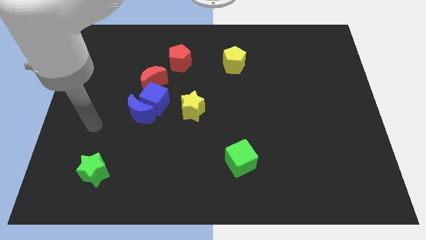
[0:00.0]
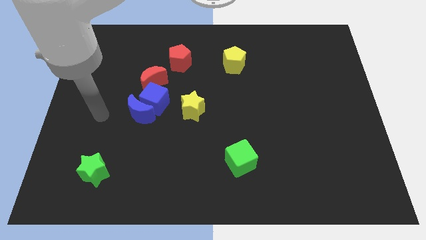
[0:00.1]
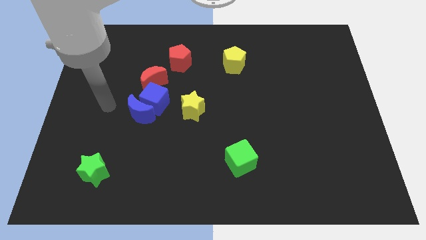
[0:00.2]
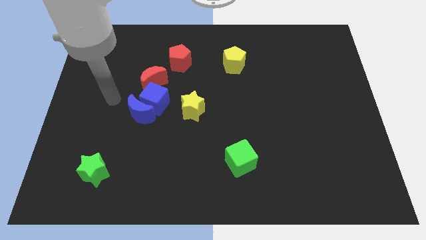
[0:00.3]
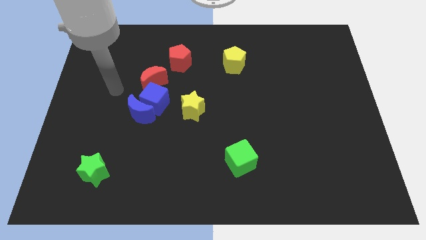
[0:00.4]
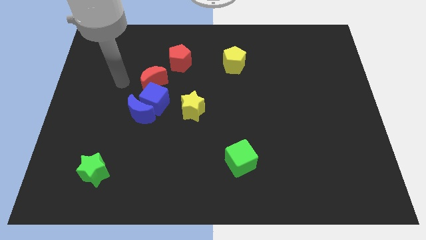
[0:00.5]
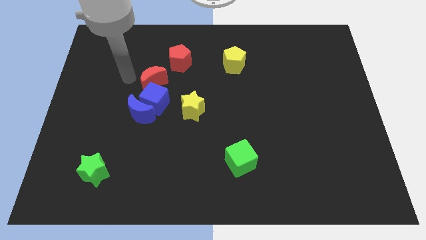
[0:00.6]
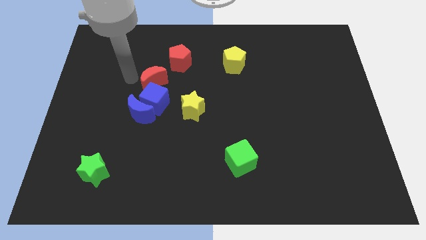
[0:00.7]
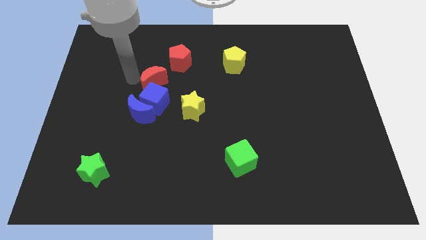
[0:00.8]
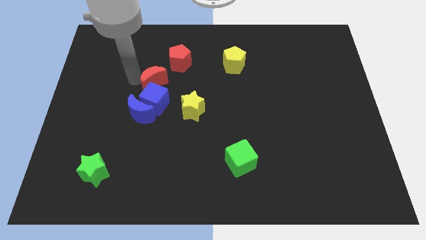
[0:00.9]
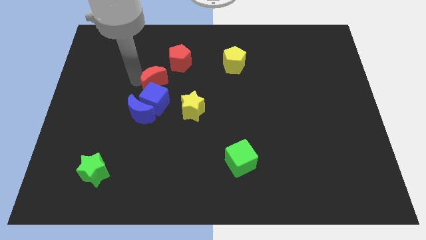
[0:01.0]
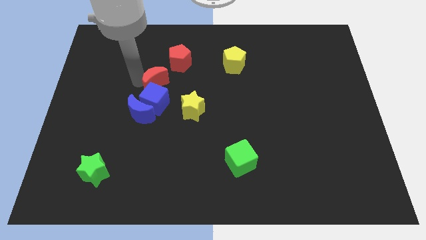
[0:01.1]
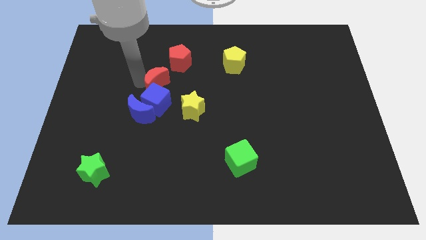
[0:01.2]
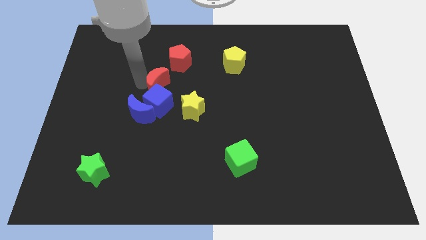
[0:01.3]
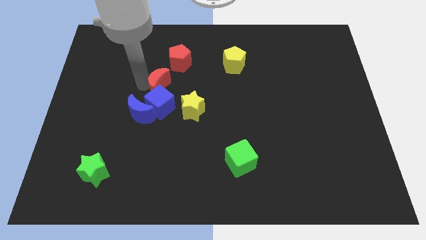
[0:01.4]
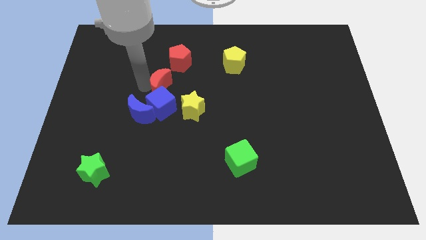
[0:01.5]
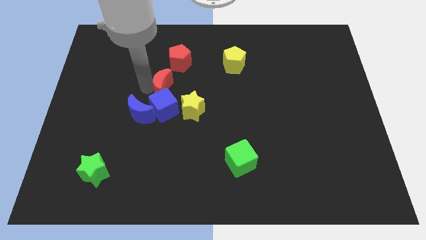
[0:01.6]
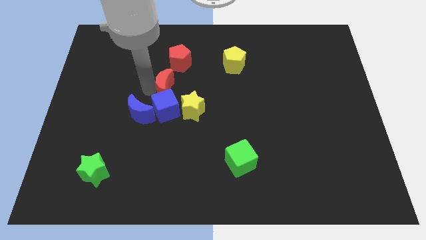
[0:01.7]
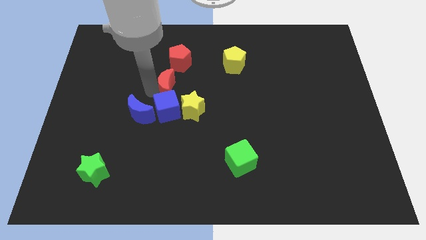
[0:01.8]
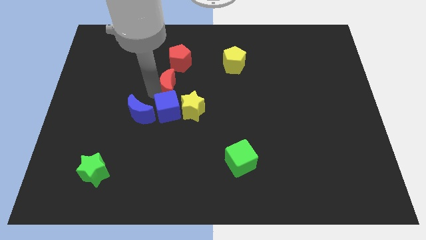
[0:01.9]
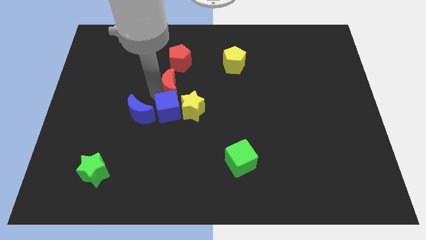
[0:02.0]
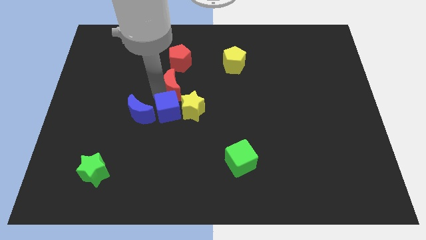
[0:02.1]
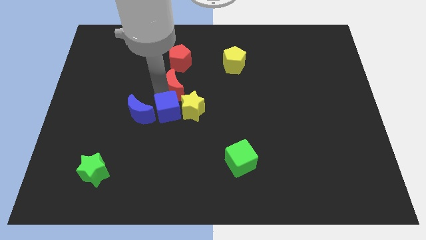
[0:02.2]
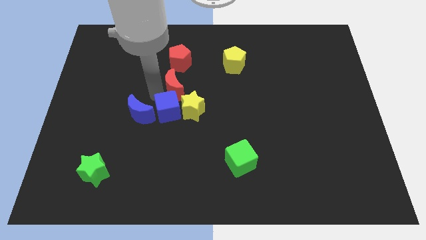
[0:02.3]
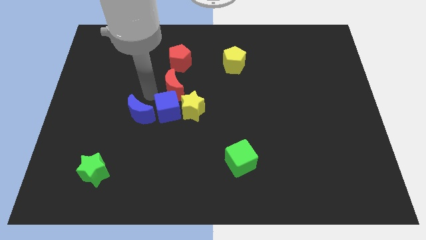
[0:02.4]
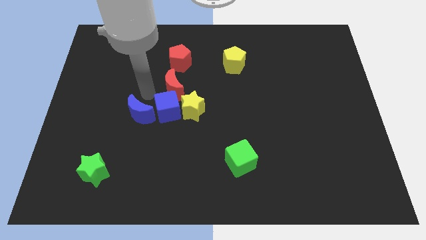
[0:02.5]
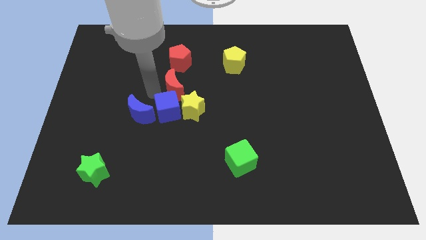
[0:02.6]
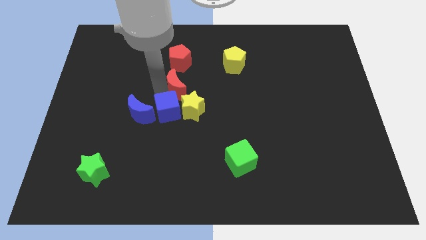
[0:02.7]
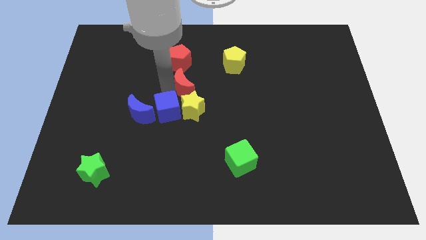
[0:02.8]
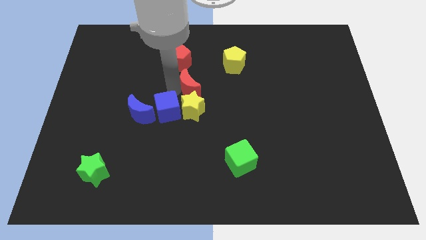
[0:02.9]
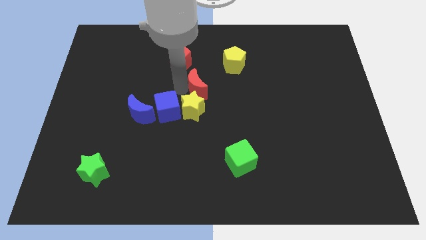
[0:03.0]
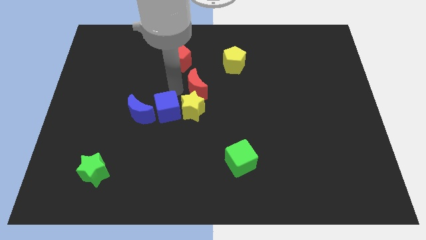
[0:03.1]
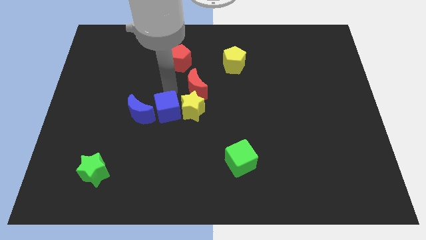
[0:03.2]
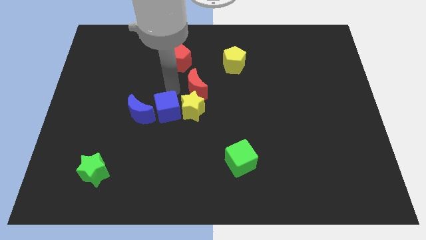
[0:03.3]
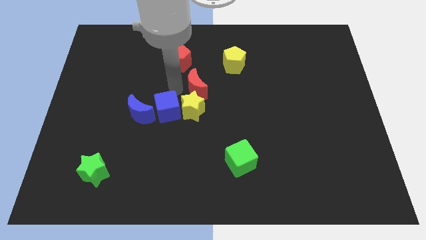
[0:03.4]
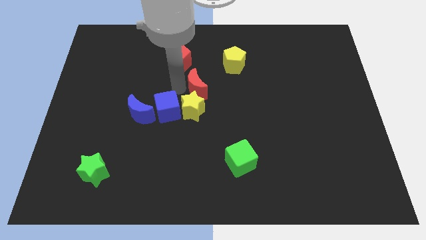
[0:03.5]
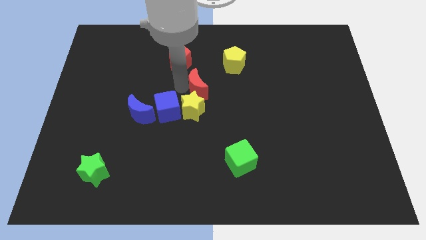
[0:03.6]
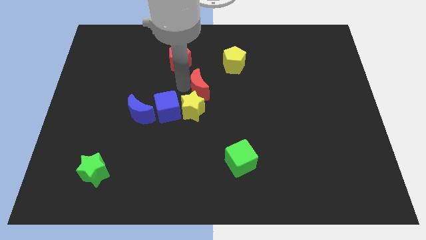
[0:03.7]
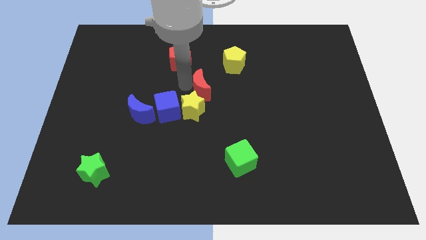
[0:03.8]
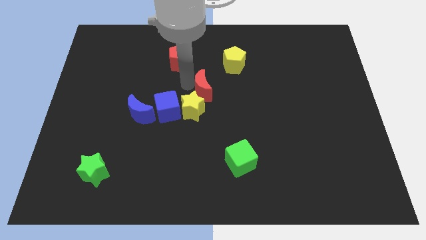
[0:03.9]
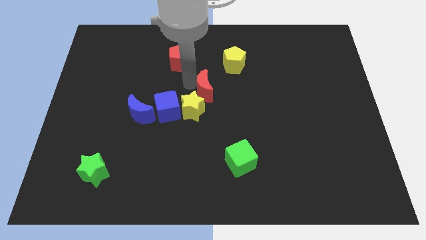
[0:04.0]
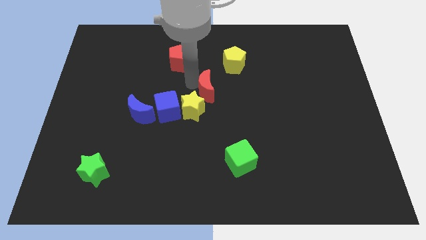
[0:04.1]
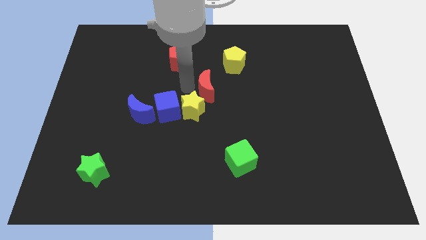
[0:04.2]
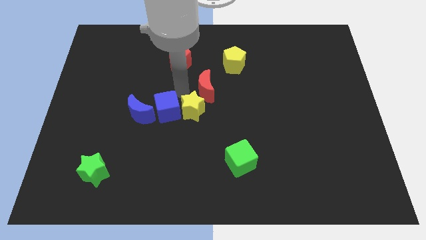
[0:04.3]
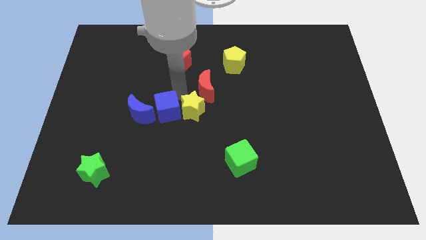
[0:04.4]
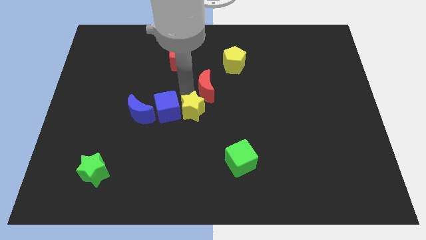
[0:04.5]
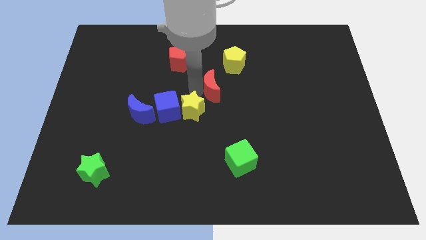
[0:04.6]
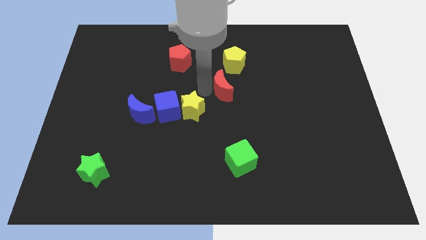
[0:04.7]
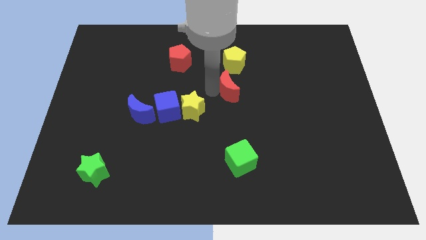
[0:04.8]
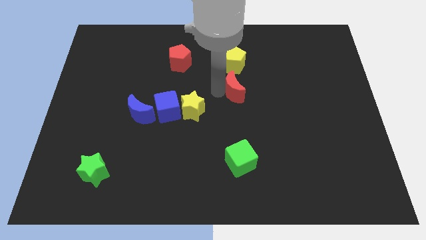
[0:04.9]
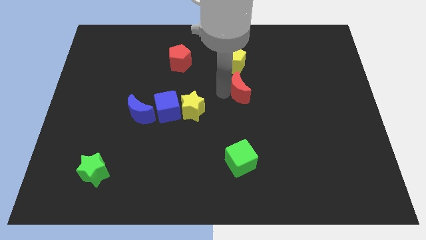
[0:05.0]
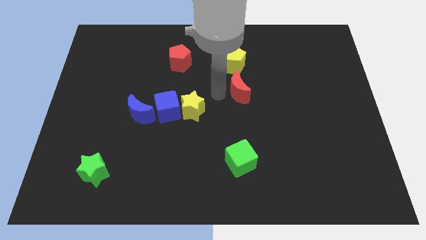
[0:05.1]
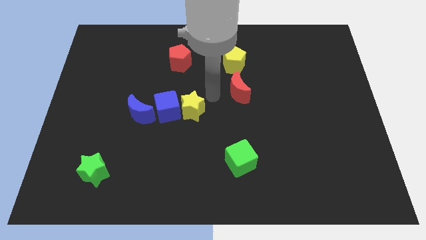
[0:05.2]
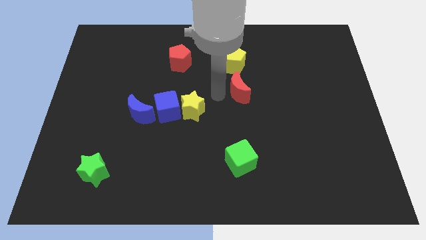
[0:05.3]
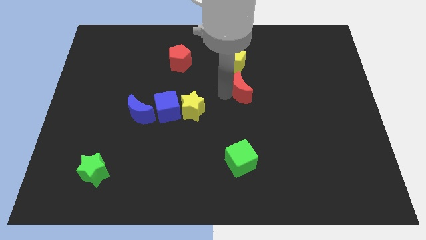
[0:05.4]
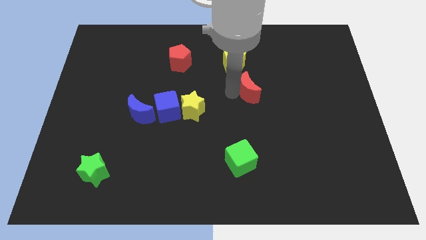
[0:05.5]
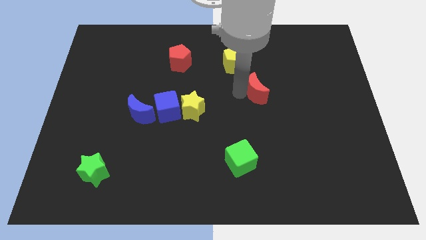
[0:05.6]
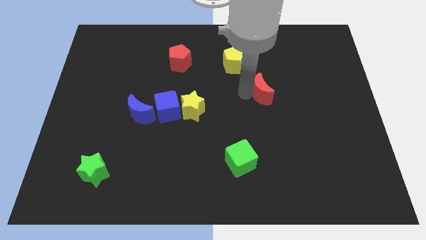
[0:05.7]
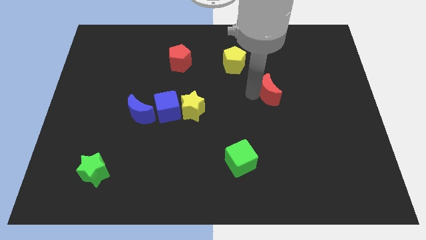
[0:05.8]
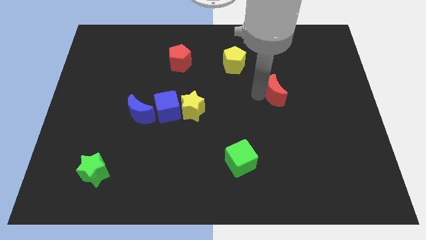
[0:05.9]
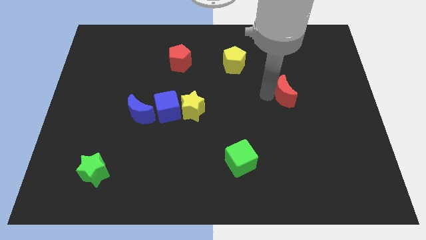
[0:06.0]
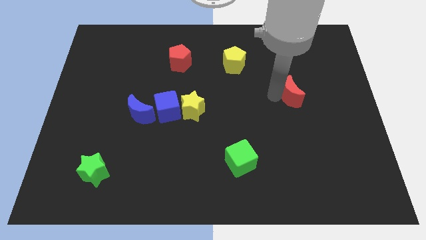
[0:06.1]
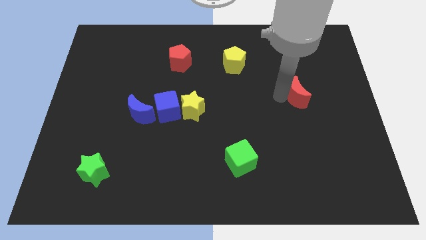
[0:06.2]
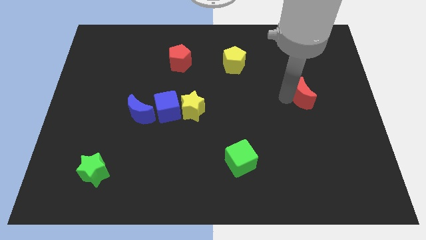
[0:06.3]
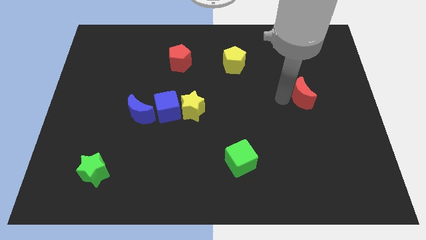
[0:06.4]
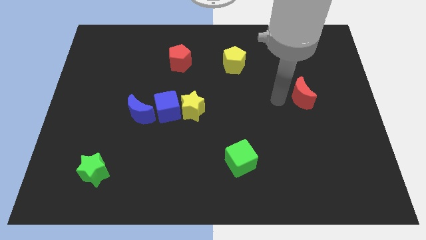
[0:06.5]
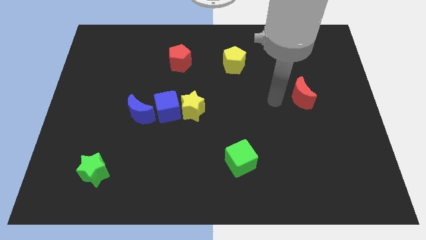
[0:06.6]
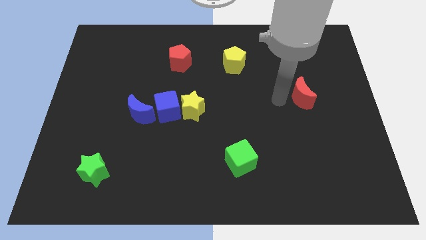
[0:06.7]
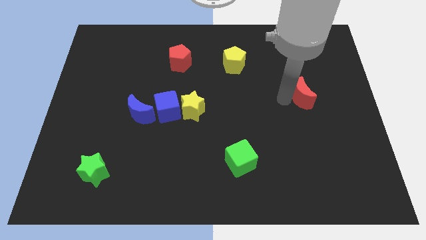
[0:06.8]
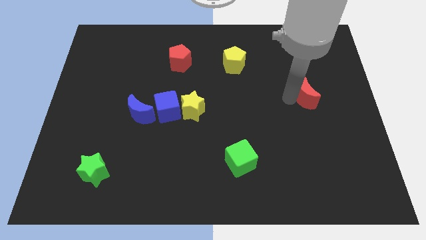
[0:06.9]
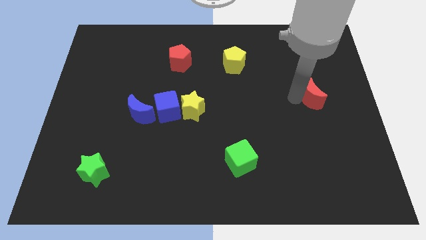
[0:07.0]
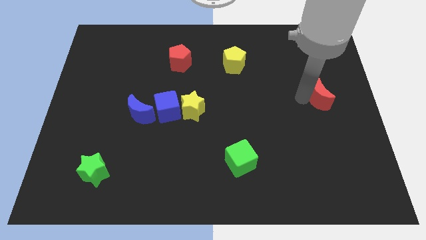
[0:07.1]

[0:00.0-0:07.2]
push the red moon to the right side
